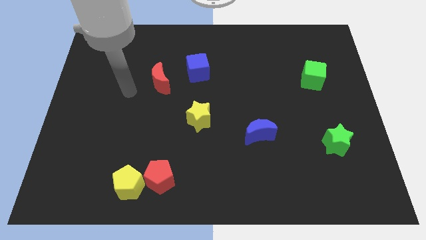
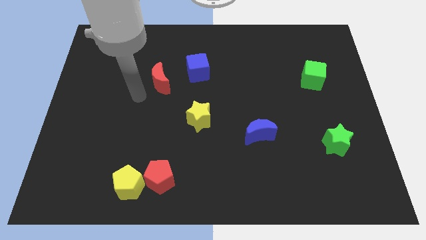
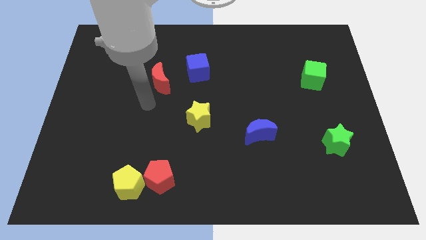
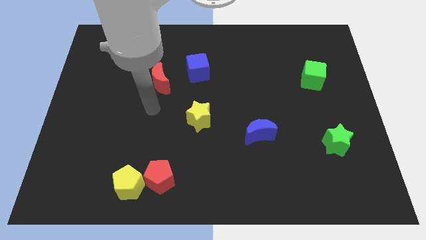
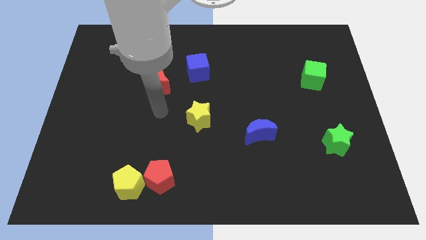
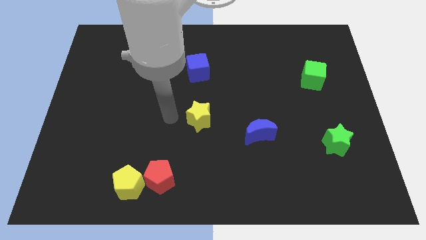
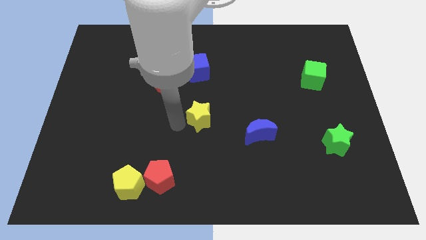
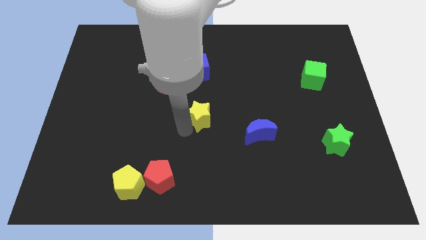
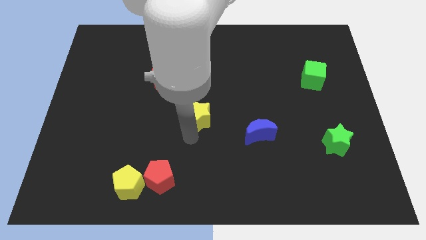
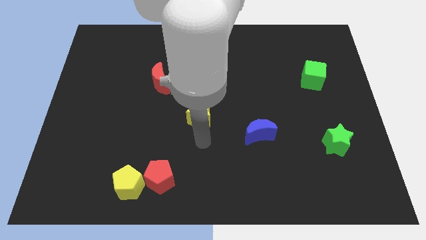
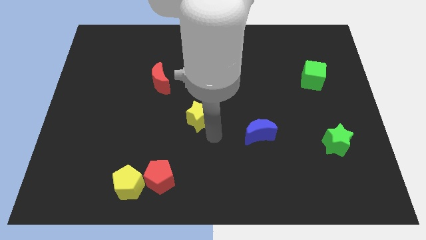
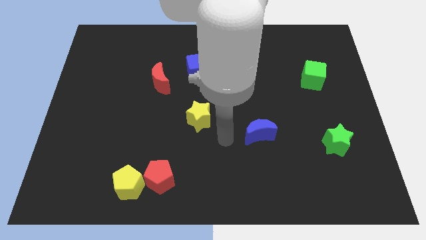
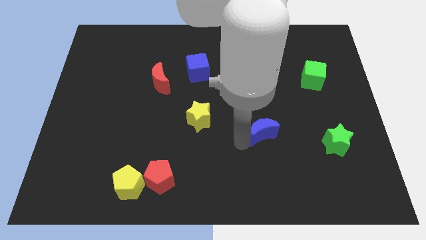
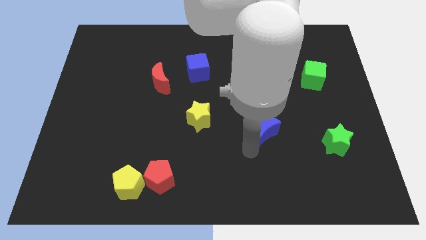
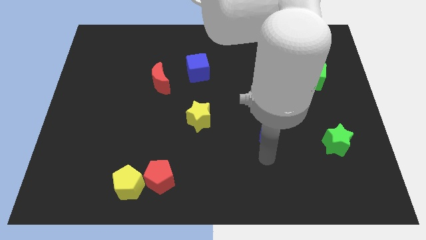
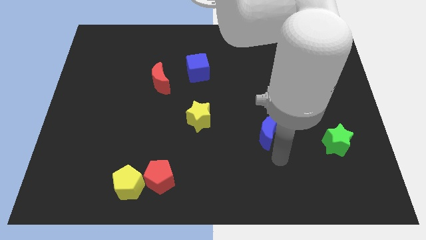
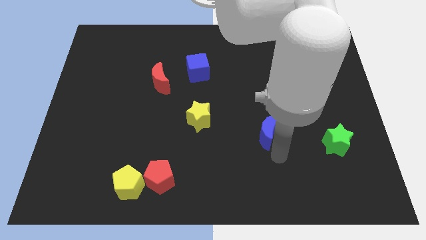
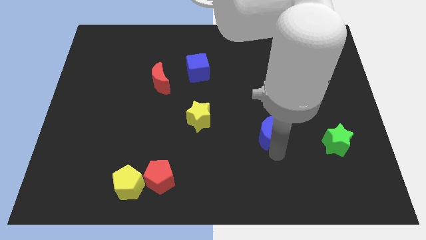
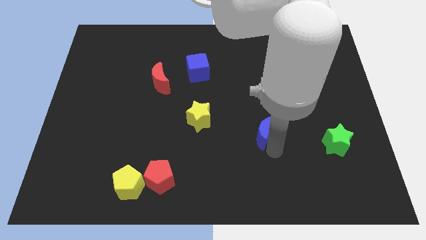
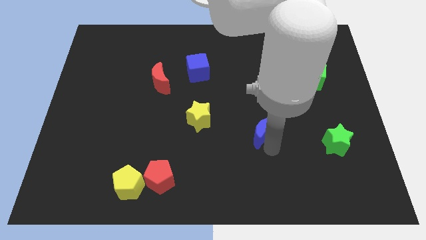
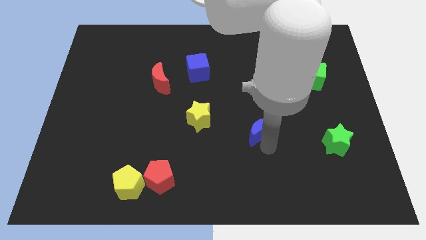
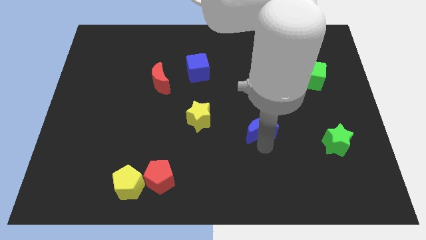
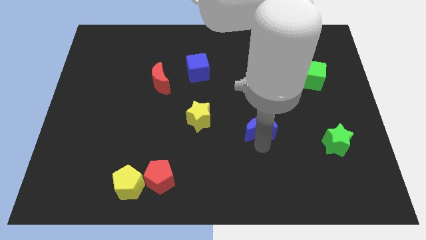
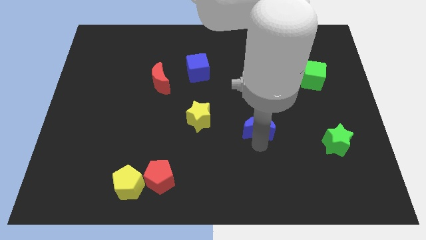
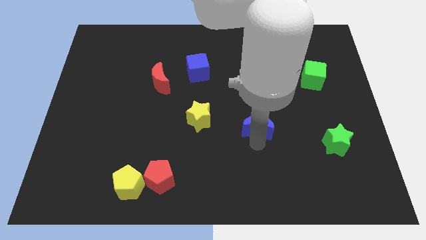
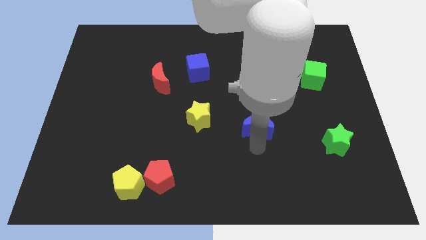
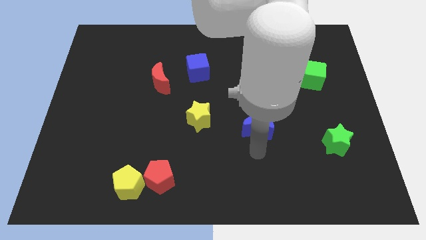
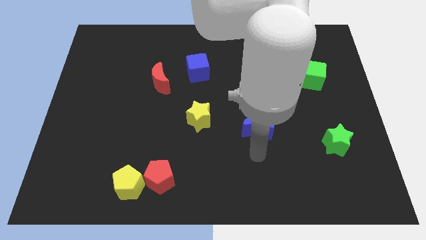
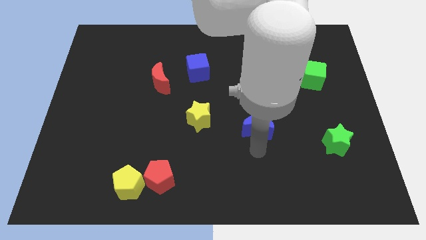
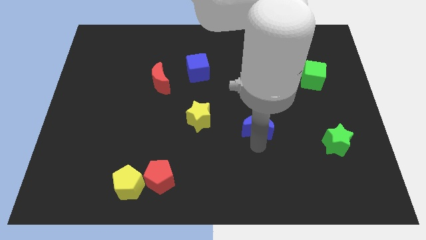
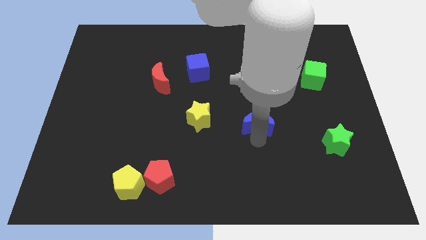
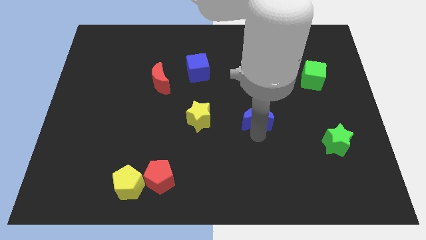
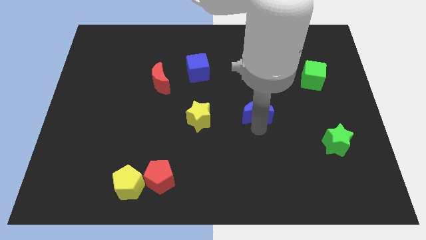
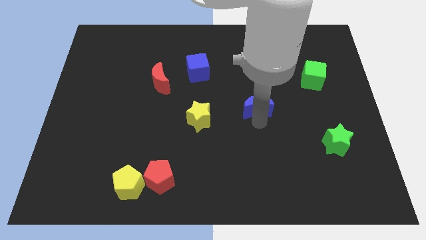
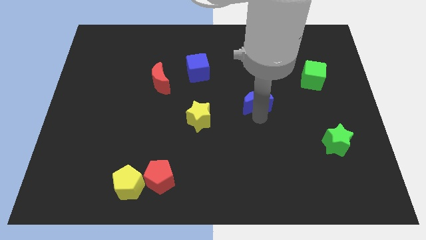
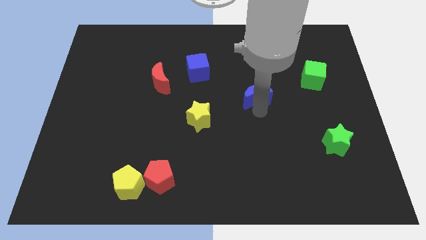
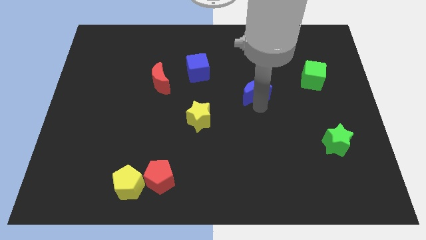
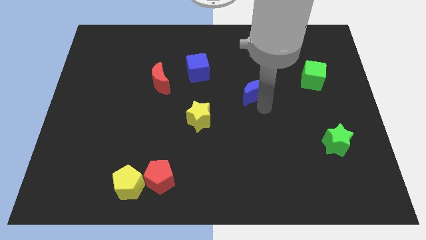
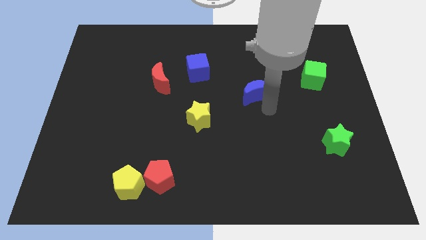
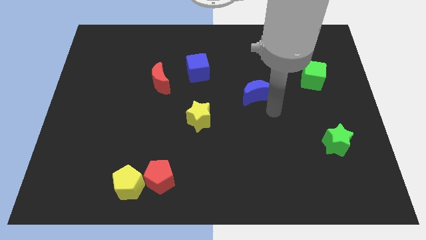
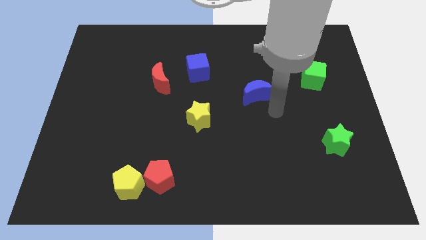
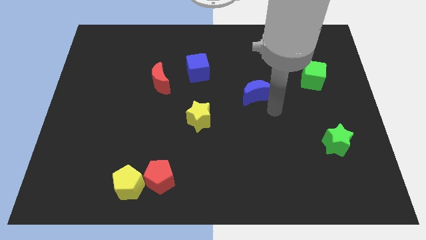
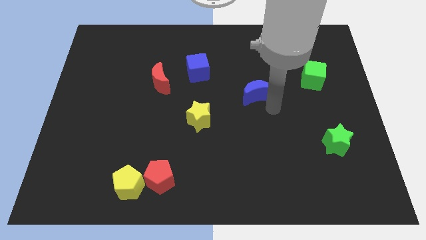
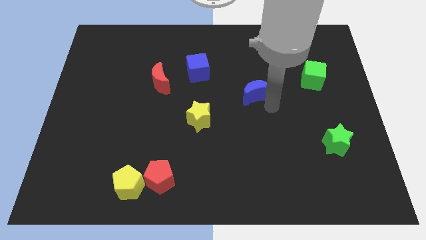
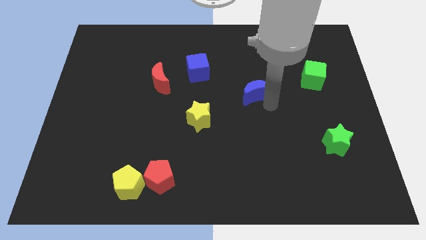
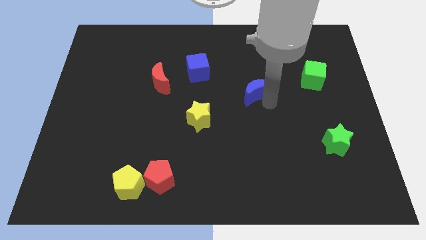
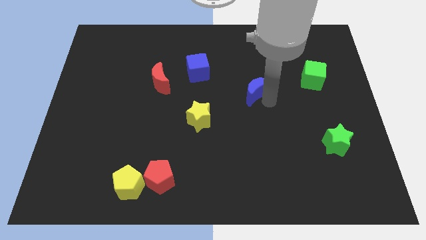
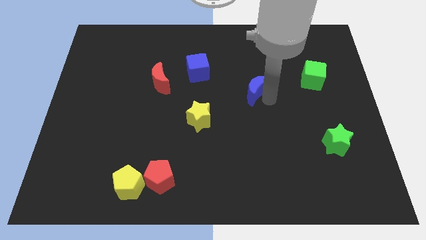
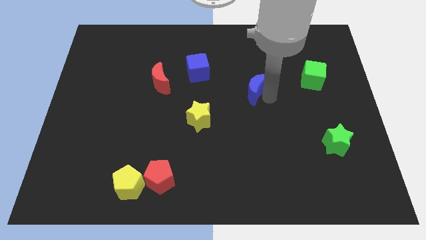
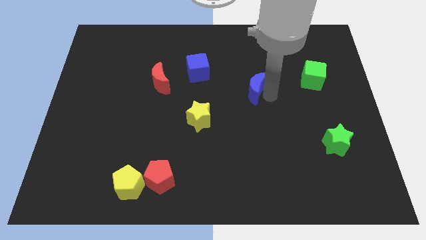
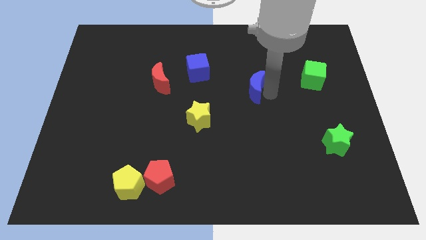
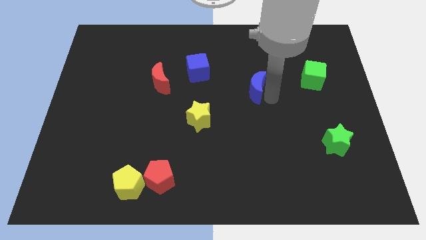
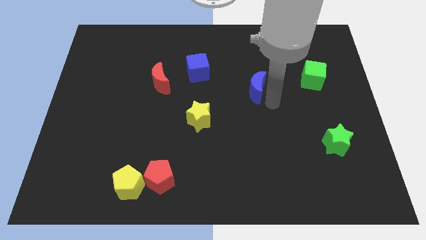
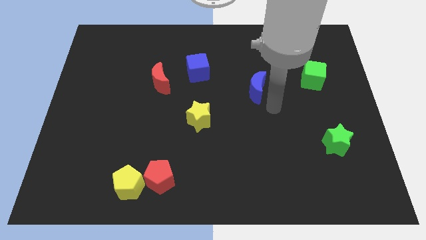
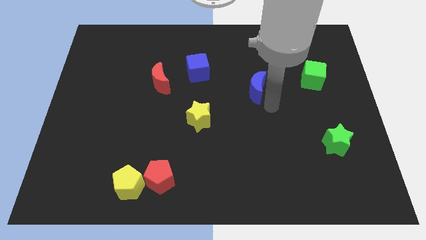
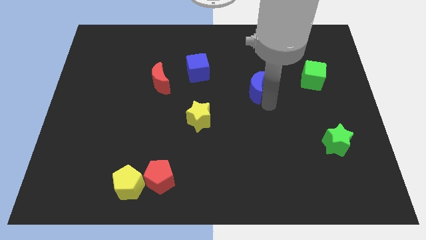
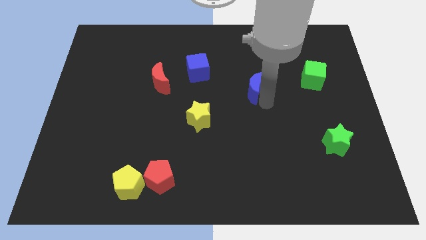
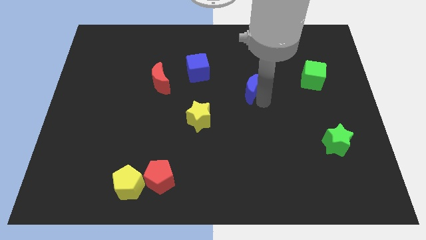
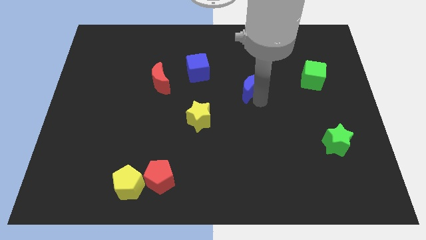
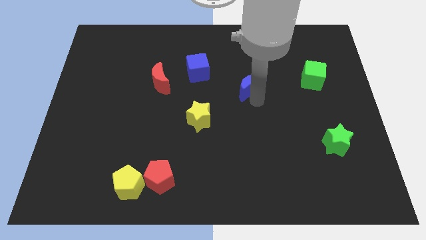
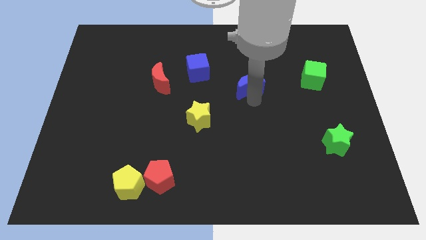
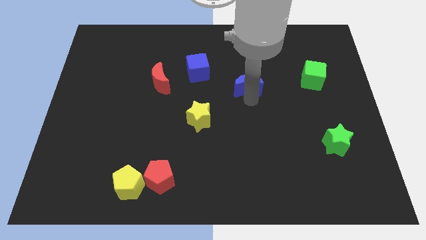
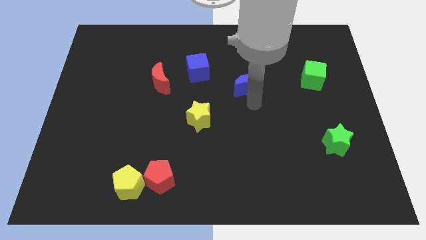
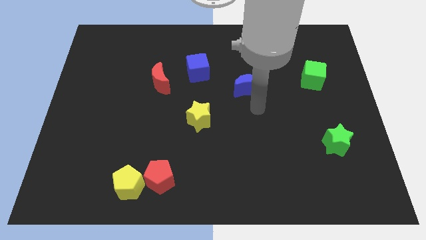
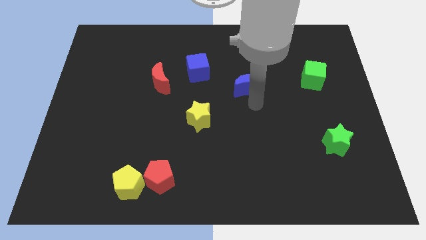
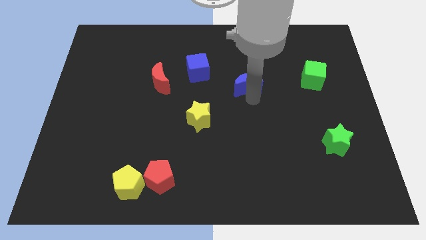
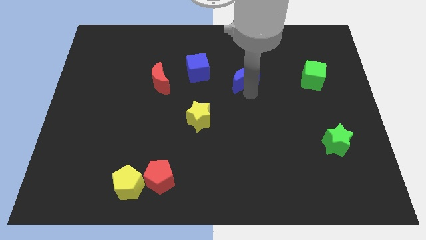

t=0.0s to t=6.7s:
move the blue moon to the right of the blue cube
